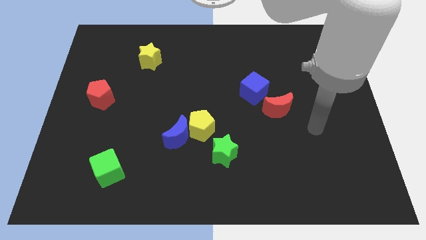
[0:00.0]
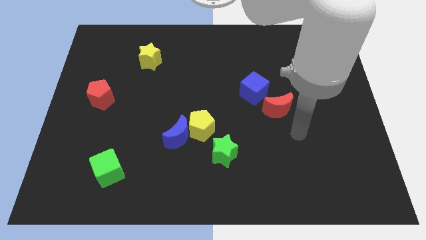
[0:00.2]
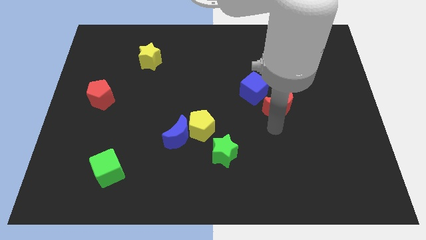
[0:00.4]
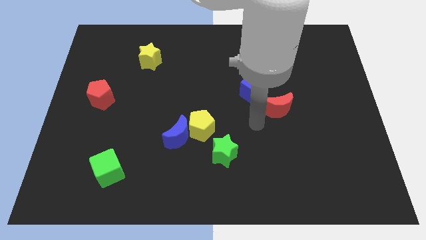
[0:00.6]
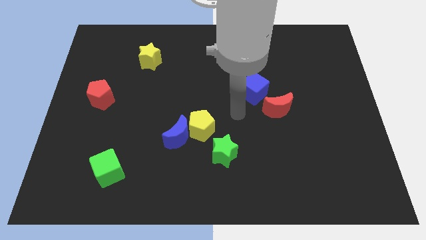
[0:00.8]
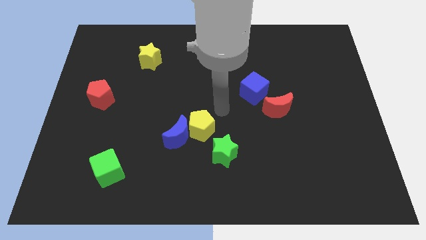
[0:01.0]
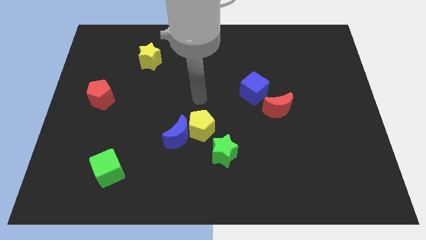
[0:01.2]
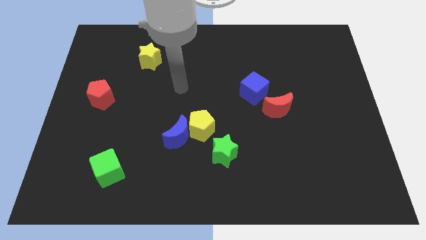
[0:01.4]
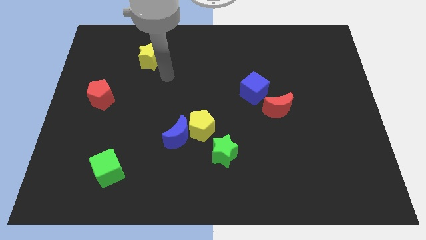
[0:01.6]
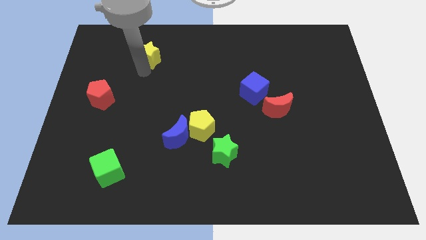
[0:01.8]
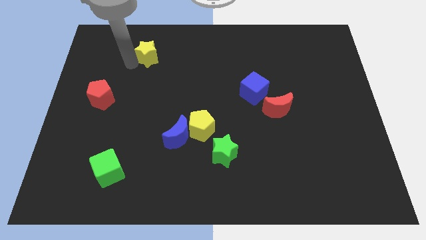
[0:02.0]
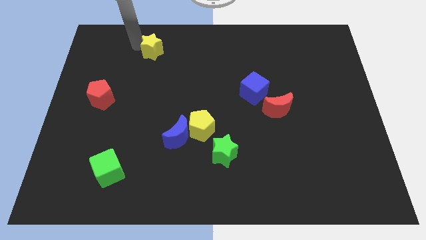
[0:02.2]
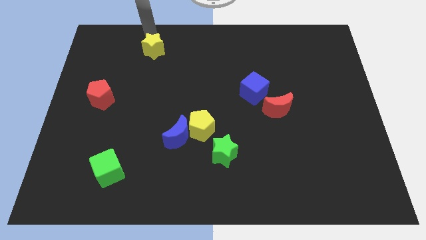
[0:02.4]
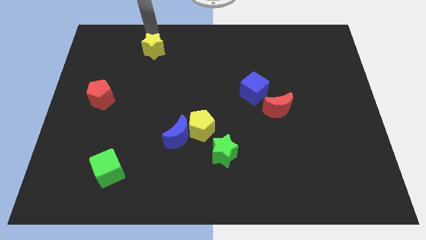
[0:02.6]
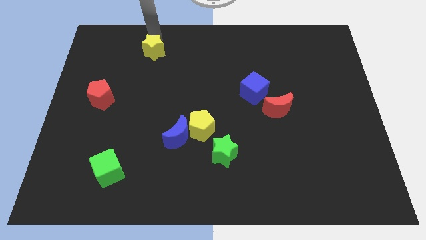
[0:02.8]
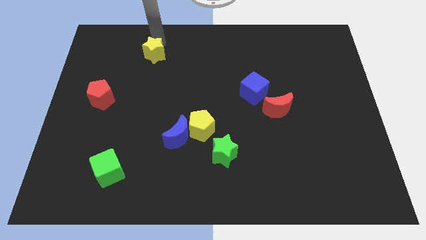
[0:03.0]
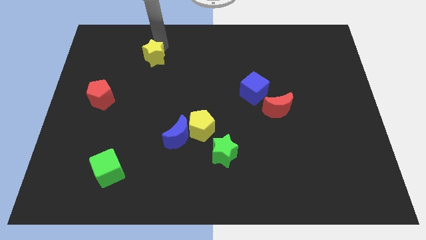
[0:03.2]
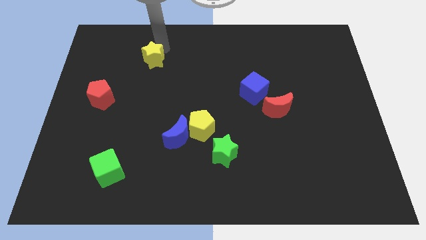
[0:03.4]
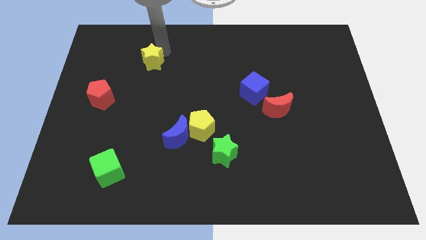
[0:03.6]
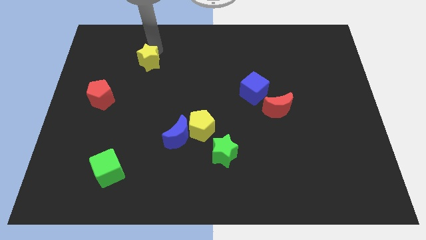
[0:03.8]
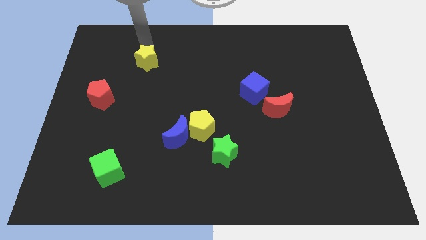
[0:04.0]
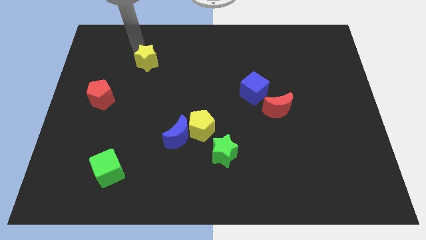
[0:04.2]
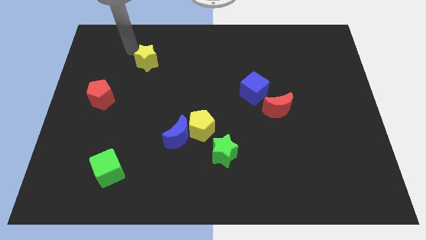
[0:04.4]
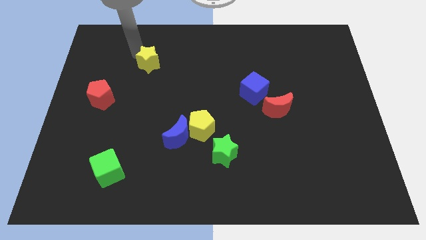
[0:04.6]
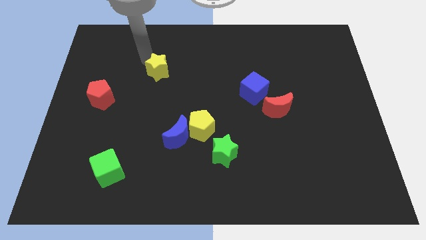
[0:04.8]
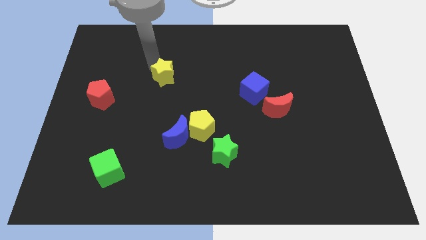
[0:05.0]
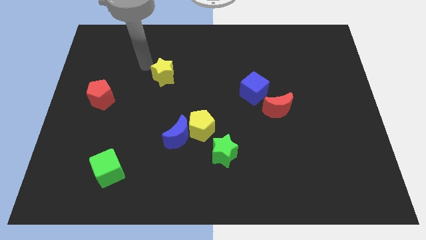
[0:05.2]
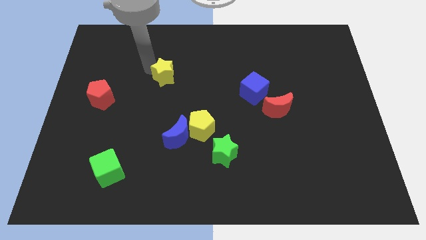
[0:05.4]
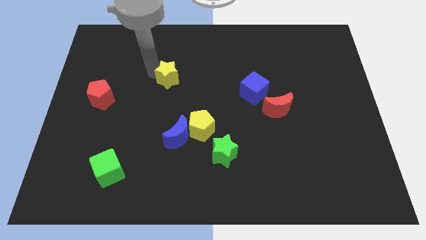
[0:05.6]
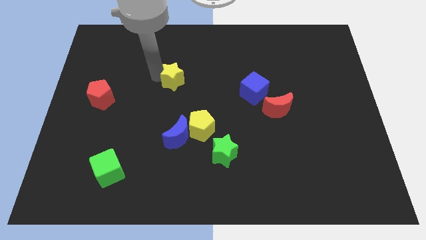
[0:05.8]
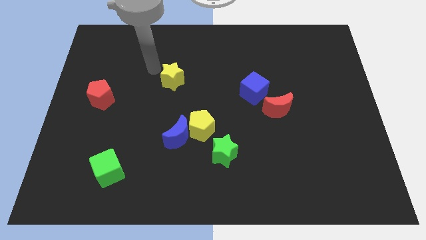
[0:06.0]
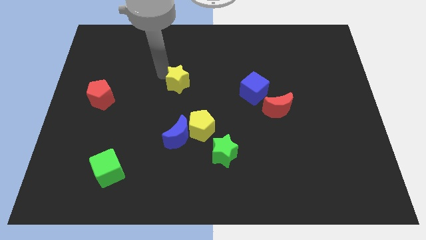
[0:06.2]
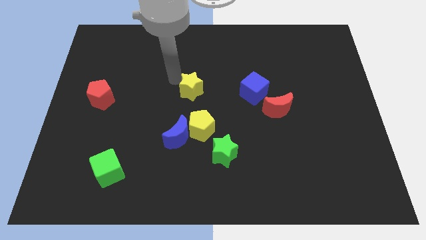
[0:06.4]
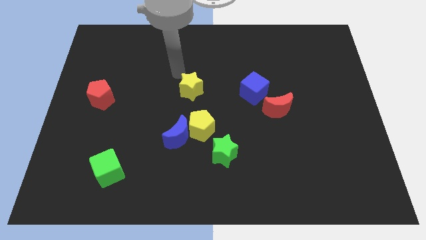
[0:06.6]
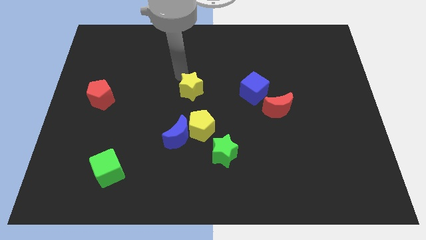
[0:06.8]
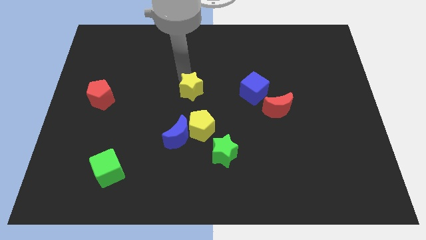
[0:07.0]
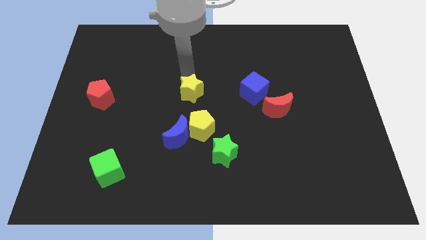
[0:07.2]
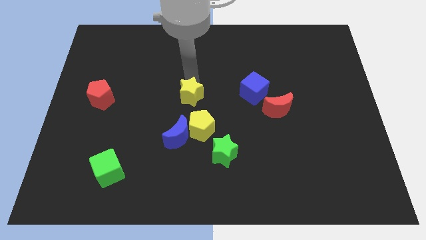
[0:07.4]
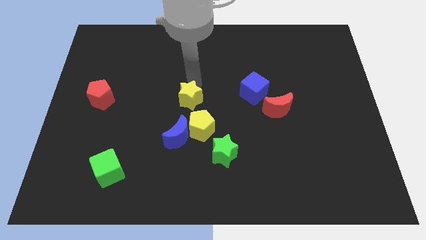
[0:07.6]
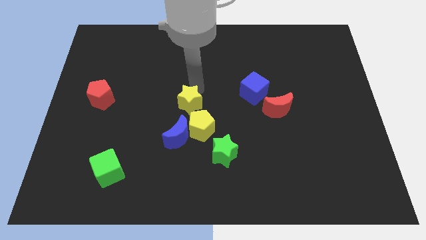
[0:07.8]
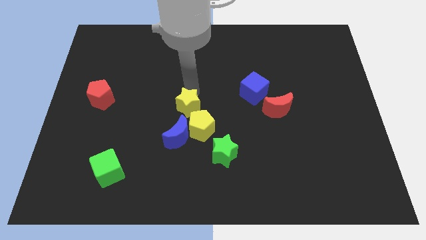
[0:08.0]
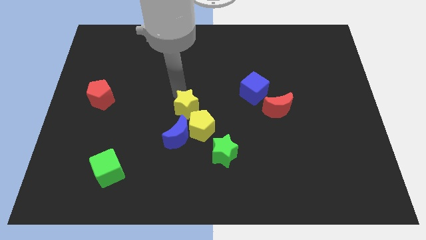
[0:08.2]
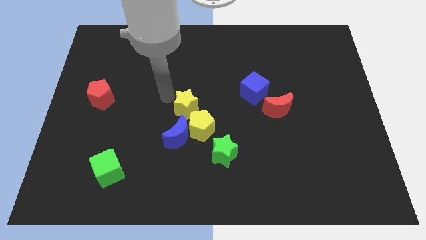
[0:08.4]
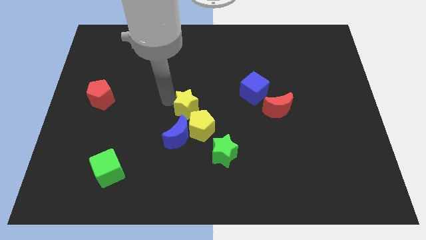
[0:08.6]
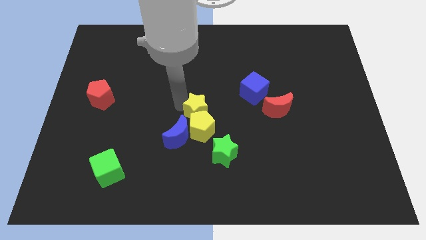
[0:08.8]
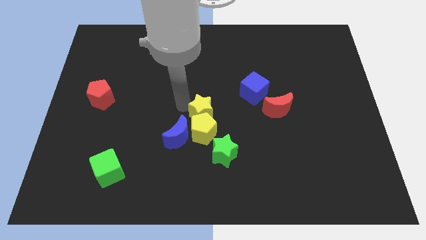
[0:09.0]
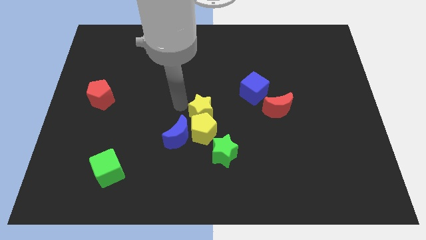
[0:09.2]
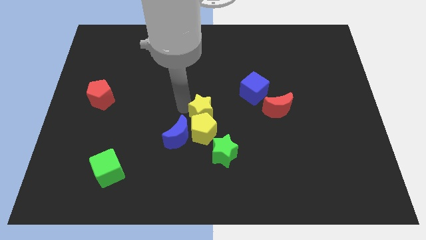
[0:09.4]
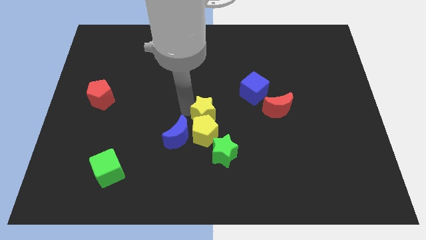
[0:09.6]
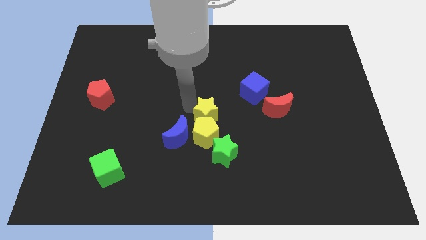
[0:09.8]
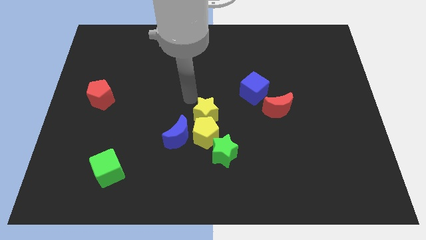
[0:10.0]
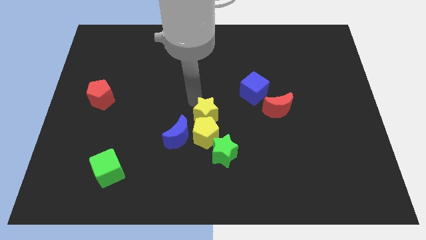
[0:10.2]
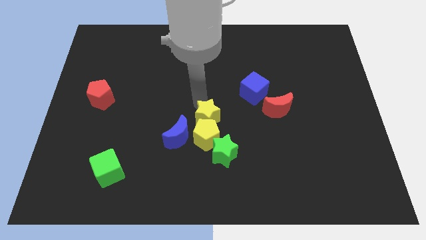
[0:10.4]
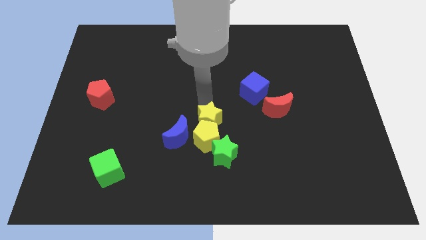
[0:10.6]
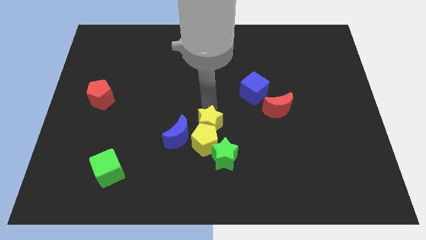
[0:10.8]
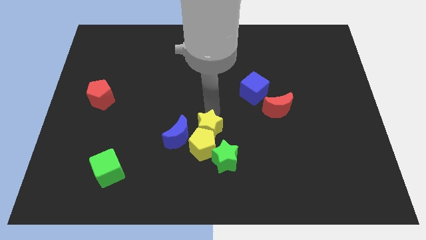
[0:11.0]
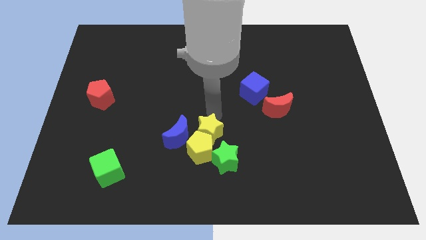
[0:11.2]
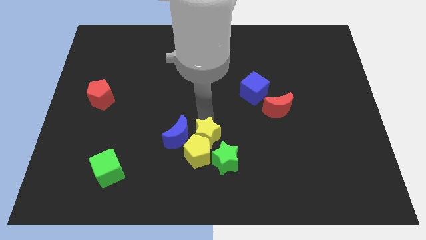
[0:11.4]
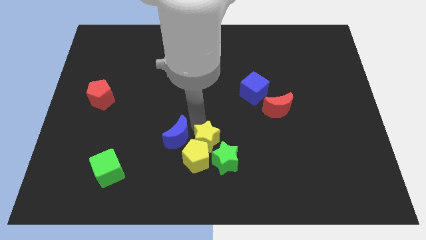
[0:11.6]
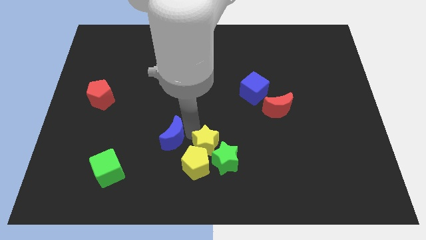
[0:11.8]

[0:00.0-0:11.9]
put the yellow star to the green star

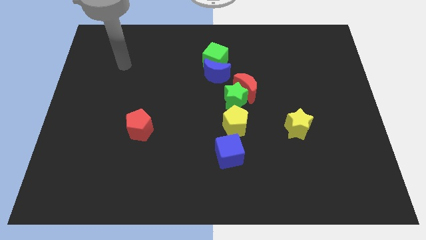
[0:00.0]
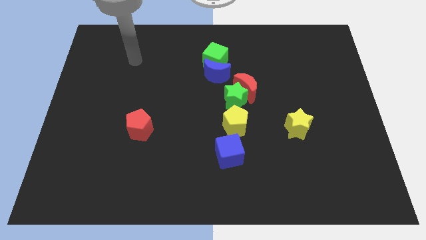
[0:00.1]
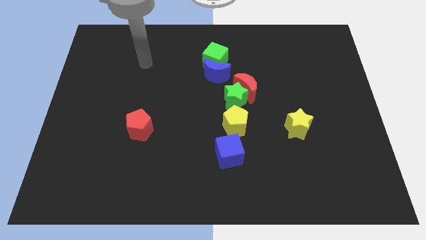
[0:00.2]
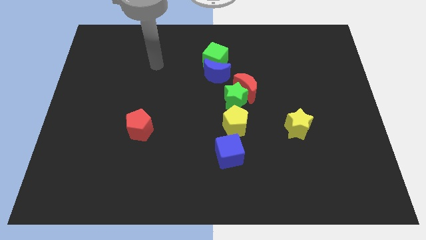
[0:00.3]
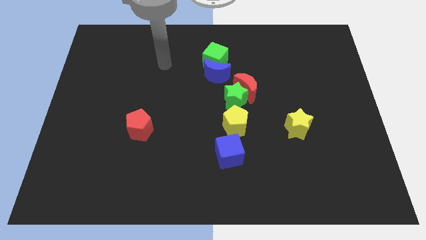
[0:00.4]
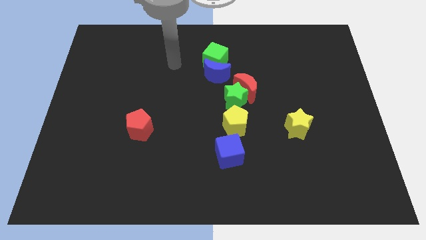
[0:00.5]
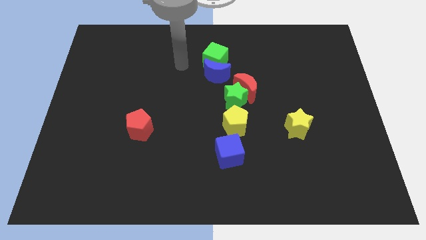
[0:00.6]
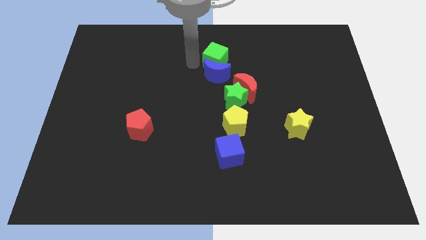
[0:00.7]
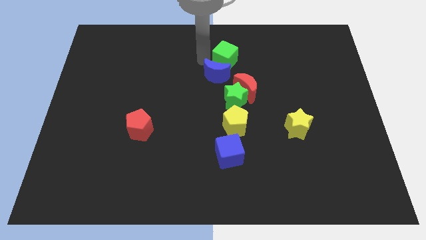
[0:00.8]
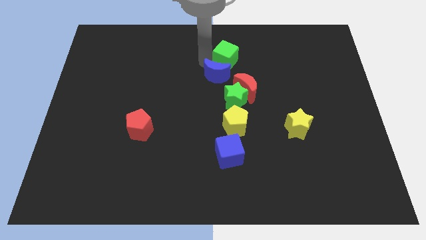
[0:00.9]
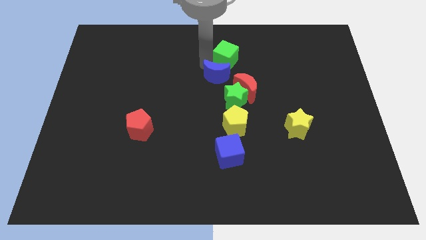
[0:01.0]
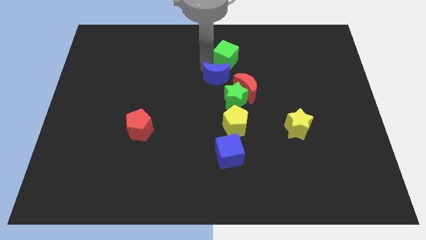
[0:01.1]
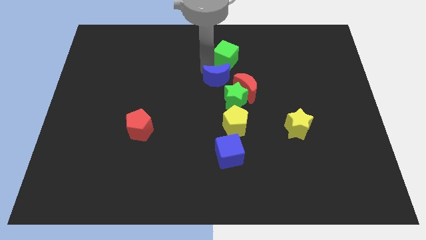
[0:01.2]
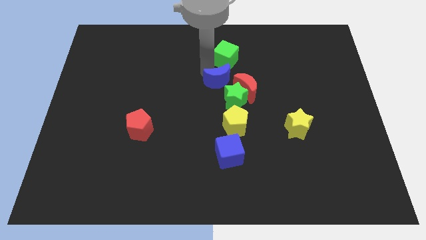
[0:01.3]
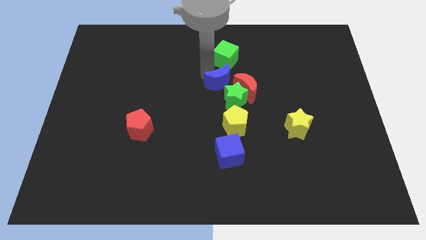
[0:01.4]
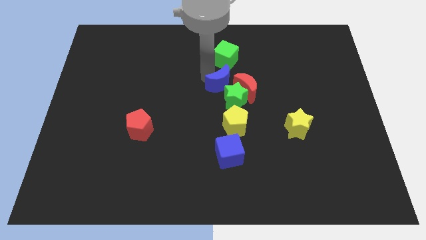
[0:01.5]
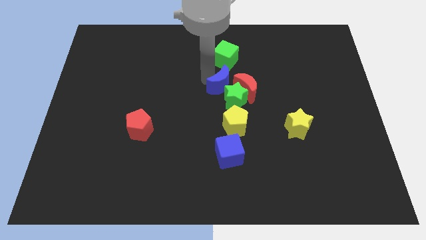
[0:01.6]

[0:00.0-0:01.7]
put the blue moon close to the green star
